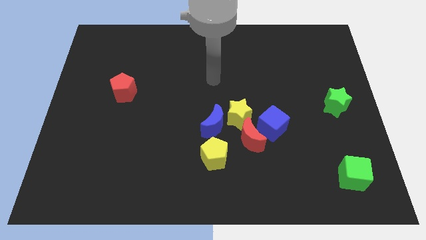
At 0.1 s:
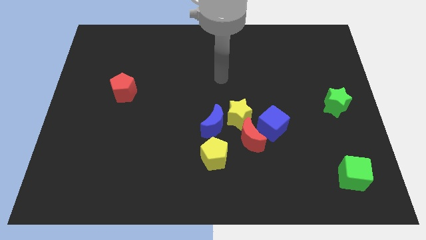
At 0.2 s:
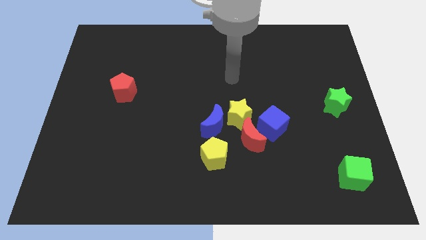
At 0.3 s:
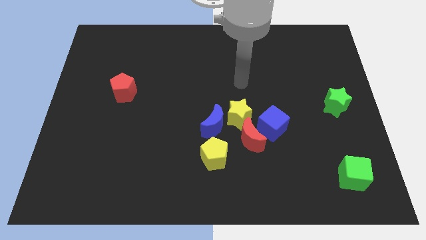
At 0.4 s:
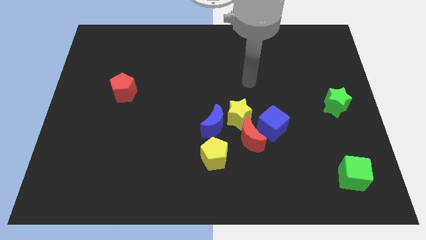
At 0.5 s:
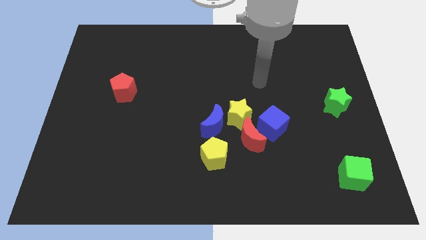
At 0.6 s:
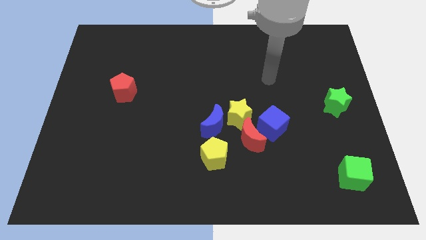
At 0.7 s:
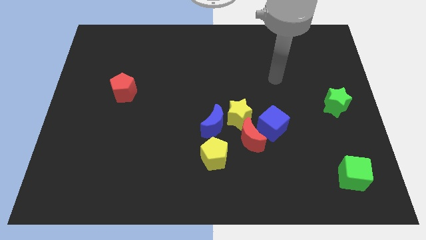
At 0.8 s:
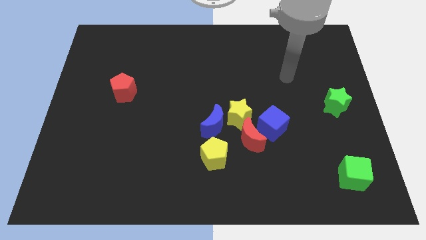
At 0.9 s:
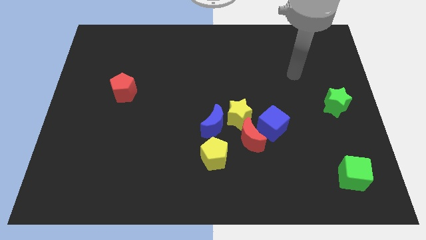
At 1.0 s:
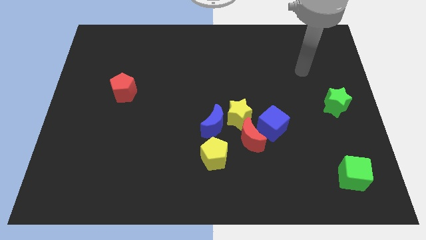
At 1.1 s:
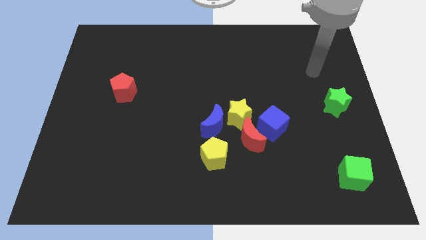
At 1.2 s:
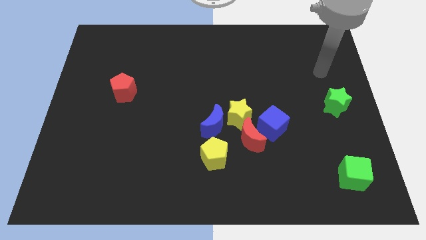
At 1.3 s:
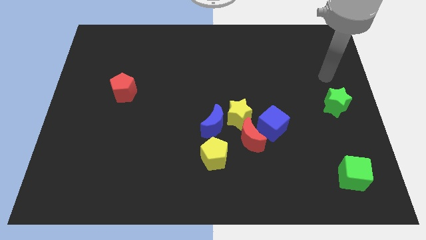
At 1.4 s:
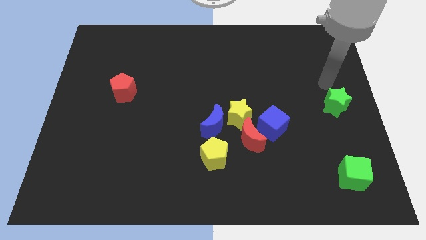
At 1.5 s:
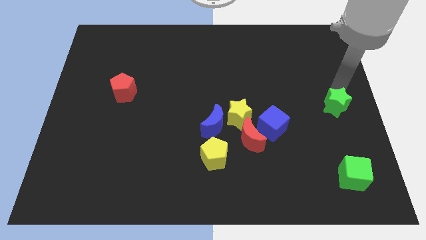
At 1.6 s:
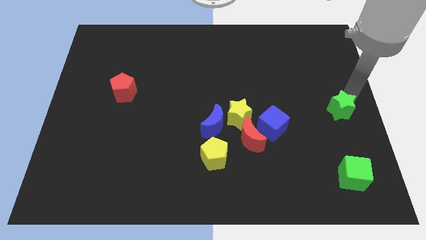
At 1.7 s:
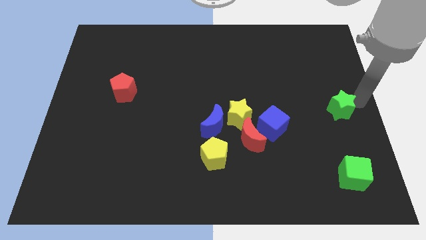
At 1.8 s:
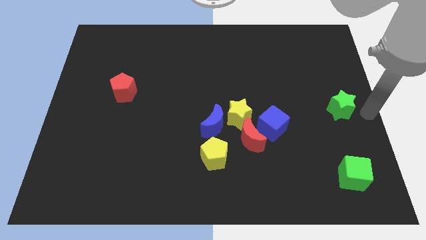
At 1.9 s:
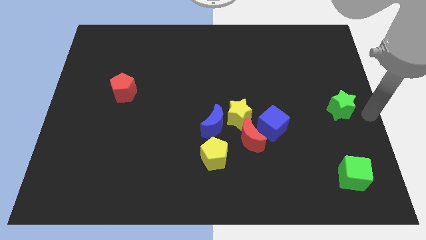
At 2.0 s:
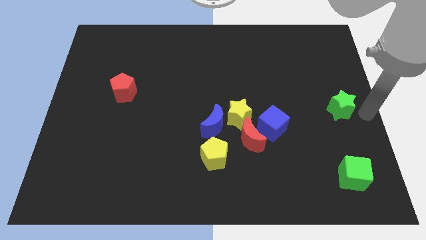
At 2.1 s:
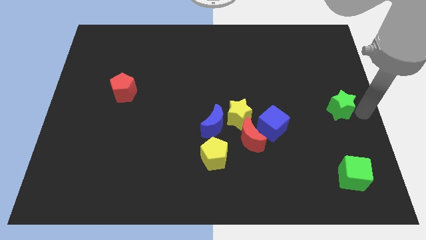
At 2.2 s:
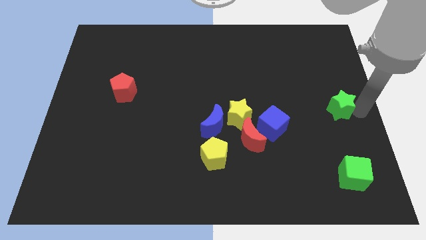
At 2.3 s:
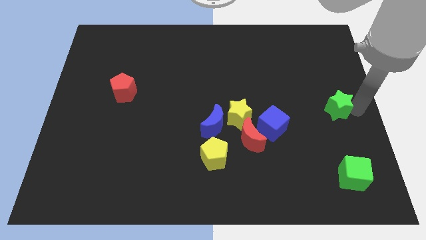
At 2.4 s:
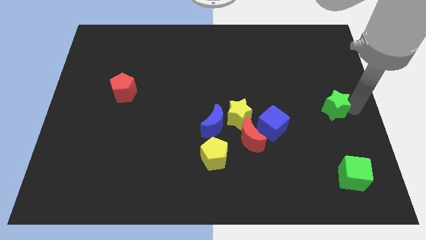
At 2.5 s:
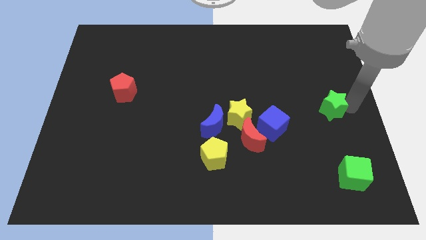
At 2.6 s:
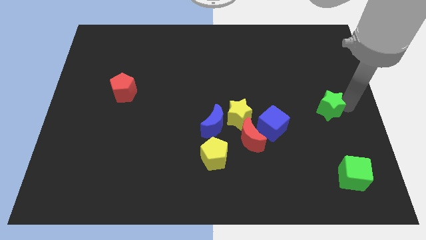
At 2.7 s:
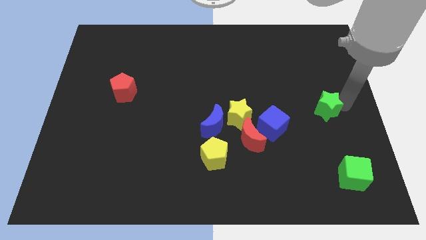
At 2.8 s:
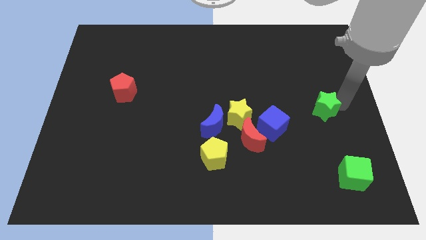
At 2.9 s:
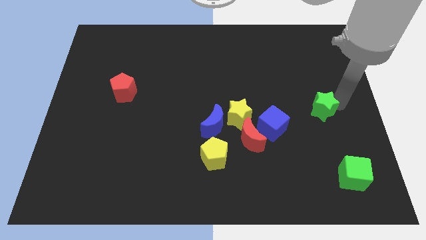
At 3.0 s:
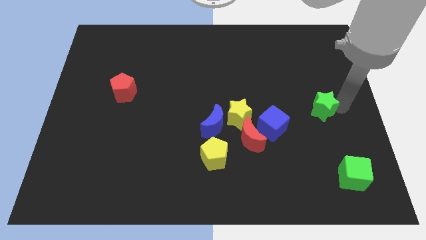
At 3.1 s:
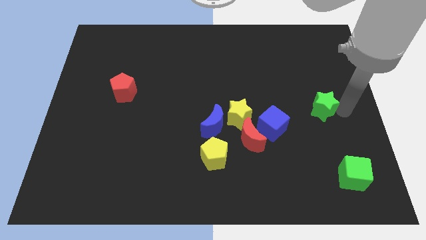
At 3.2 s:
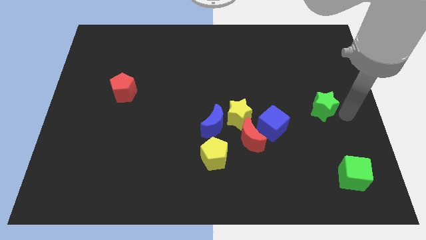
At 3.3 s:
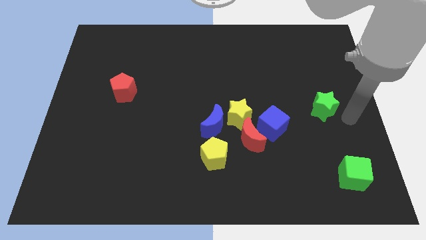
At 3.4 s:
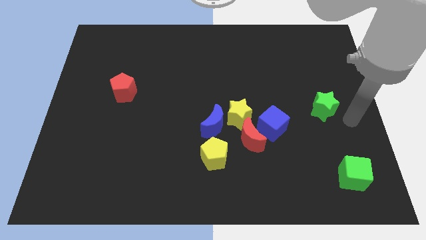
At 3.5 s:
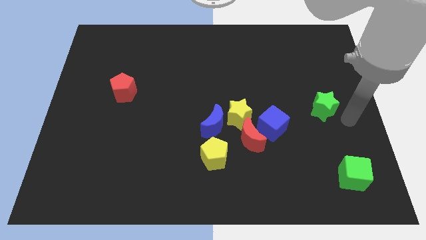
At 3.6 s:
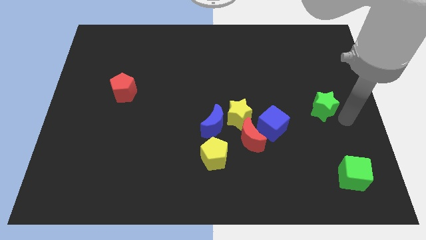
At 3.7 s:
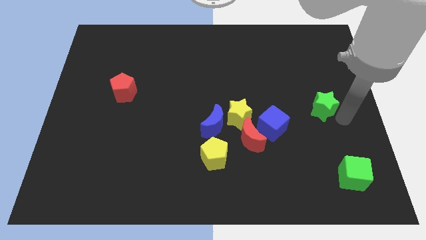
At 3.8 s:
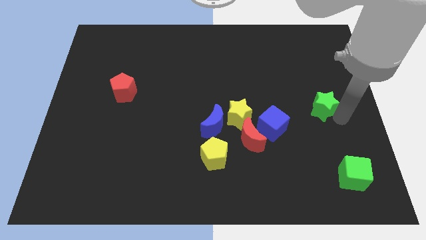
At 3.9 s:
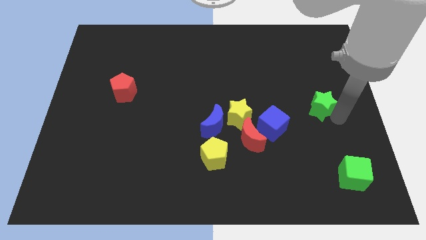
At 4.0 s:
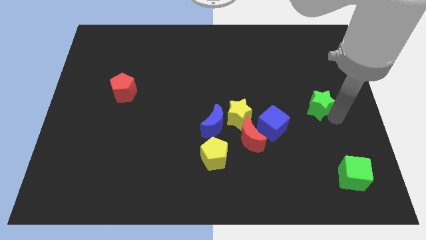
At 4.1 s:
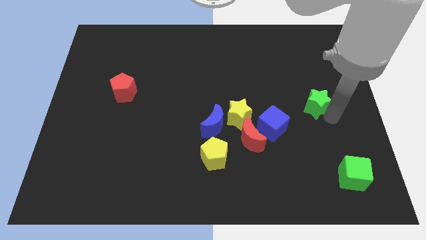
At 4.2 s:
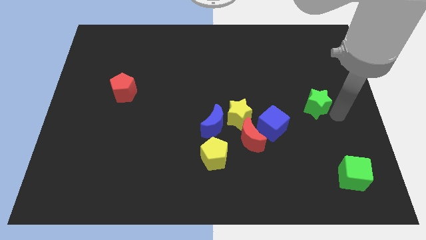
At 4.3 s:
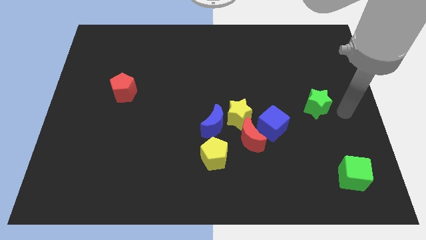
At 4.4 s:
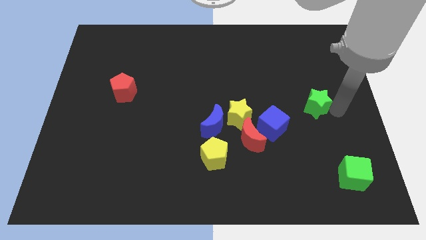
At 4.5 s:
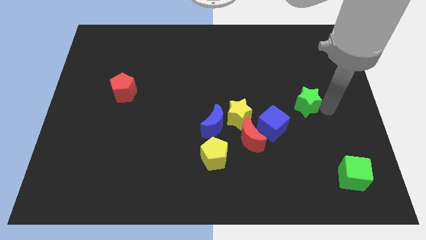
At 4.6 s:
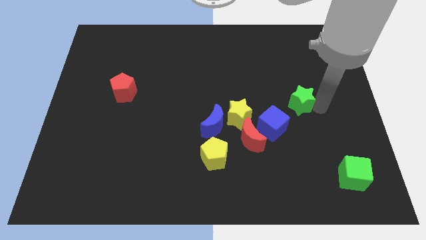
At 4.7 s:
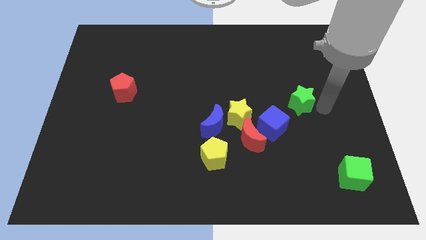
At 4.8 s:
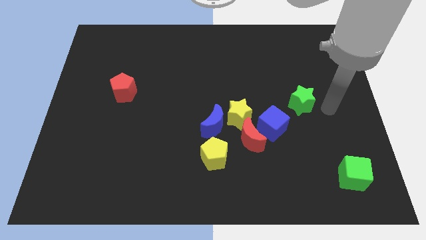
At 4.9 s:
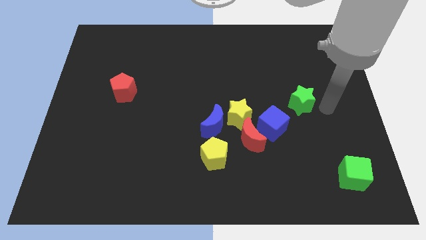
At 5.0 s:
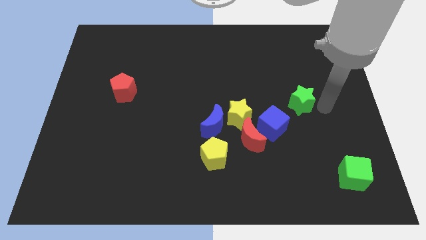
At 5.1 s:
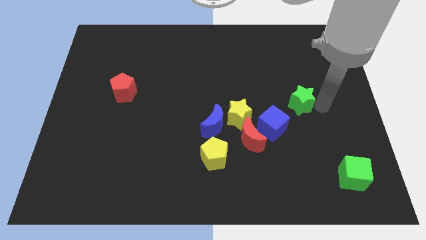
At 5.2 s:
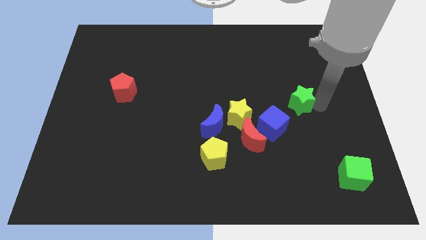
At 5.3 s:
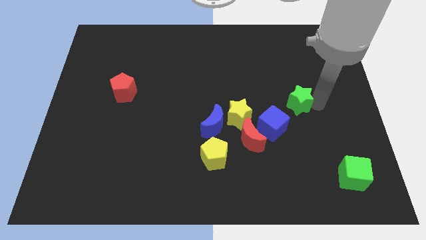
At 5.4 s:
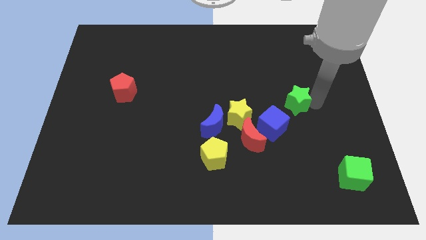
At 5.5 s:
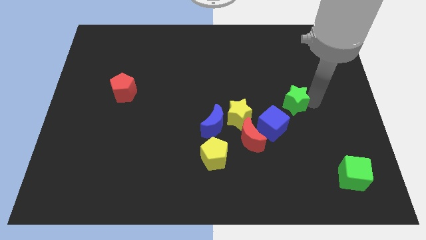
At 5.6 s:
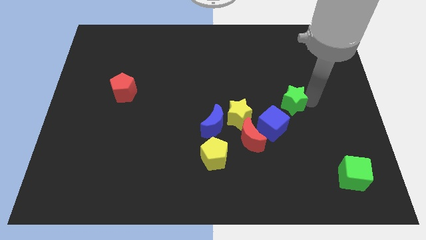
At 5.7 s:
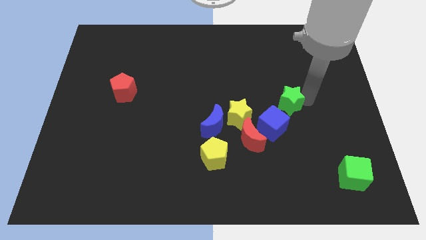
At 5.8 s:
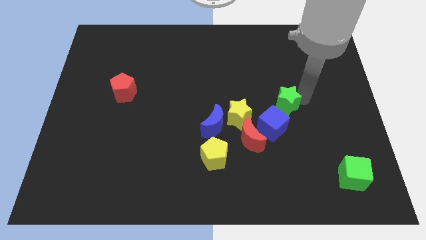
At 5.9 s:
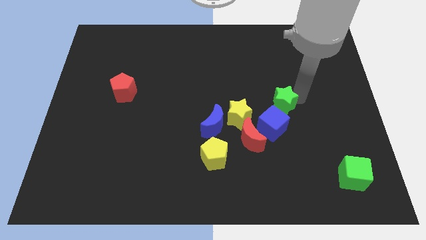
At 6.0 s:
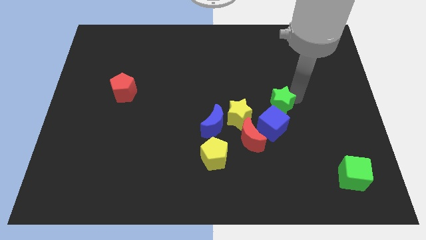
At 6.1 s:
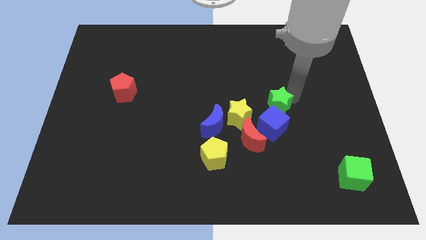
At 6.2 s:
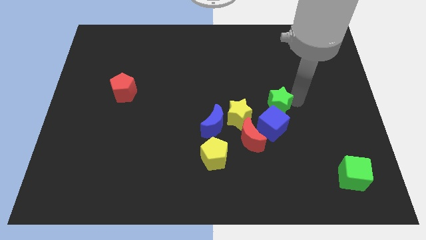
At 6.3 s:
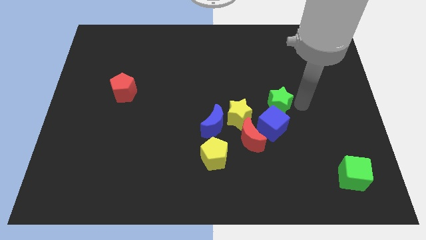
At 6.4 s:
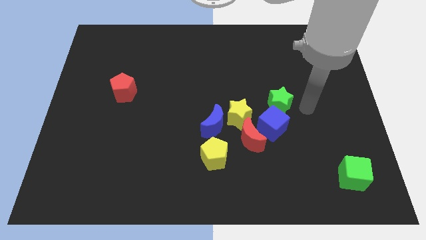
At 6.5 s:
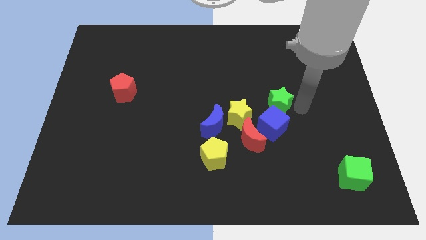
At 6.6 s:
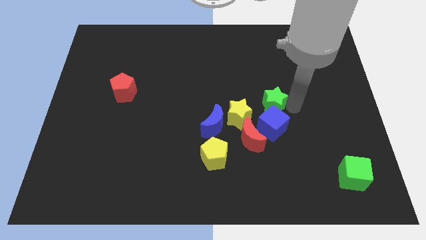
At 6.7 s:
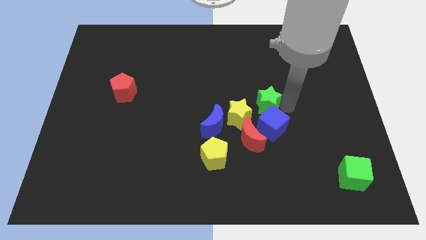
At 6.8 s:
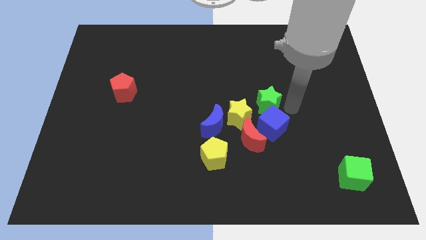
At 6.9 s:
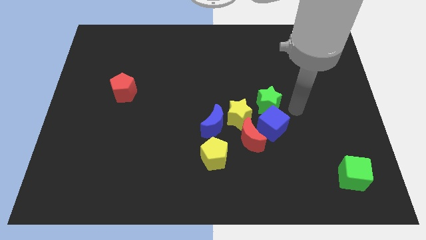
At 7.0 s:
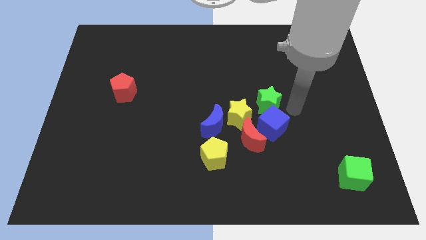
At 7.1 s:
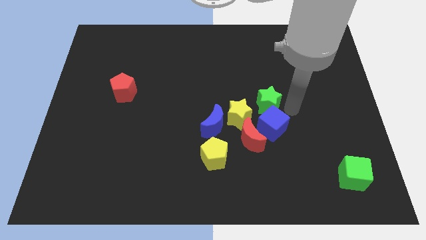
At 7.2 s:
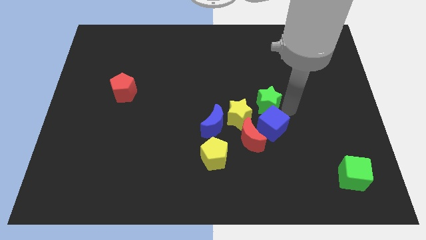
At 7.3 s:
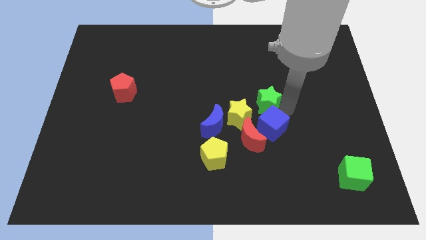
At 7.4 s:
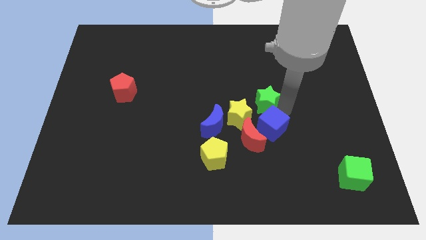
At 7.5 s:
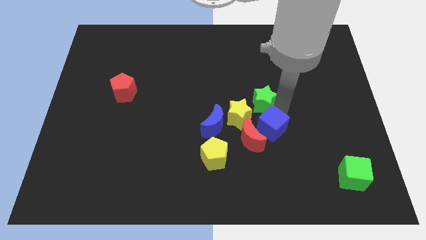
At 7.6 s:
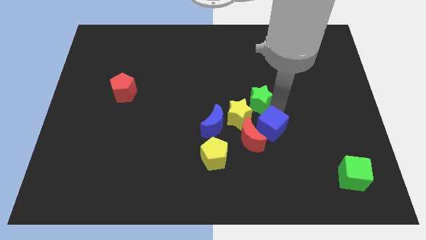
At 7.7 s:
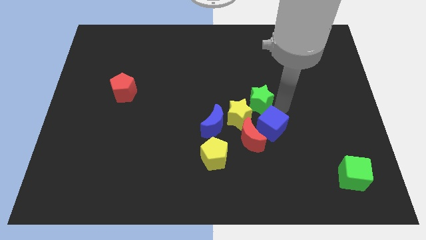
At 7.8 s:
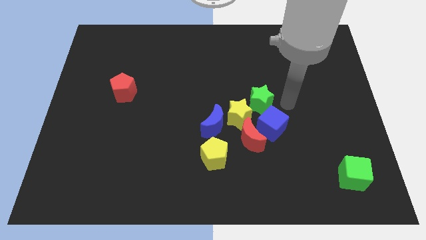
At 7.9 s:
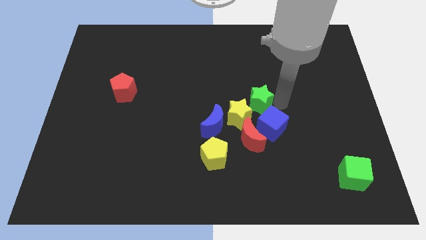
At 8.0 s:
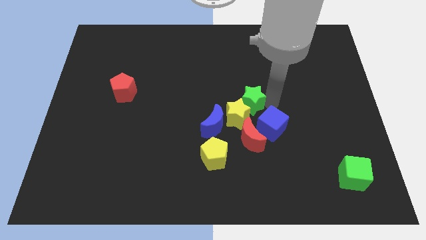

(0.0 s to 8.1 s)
move the green star left

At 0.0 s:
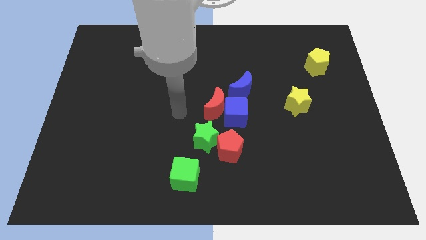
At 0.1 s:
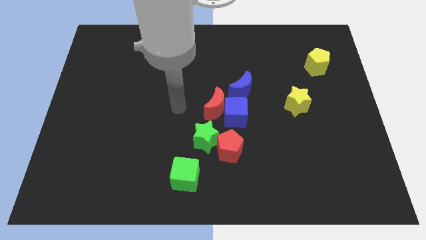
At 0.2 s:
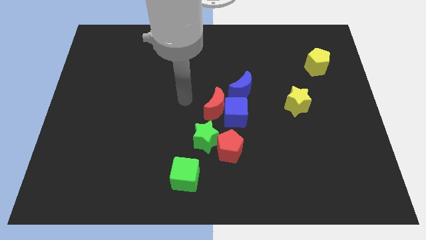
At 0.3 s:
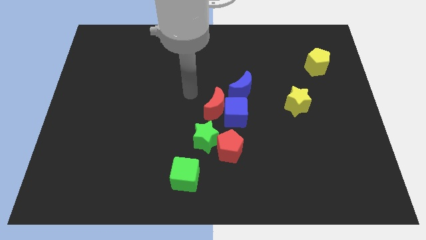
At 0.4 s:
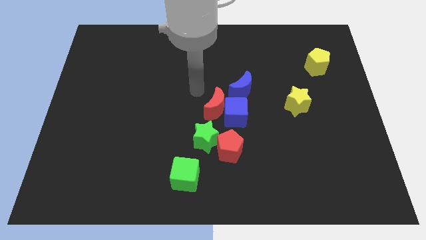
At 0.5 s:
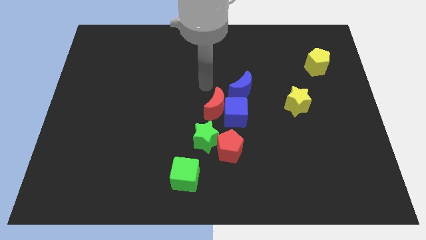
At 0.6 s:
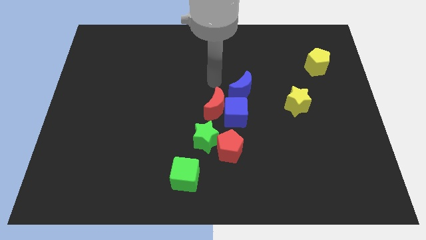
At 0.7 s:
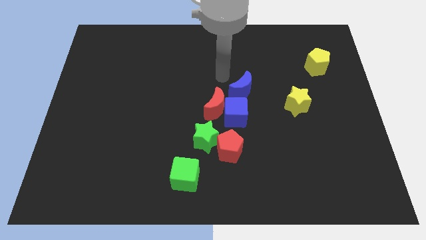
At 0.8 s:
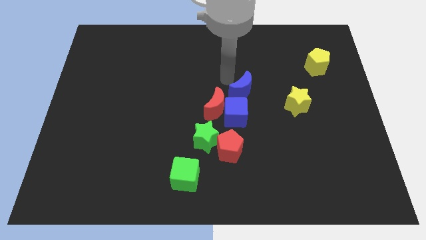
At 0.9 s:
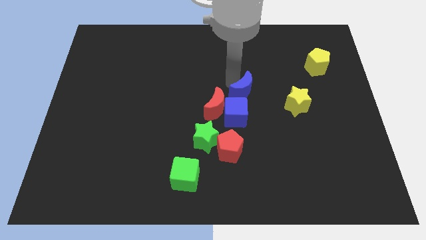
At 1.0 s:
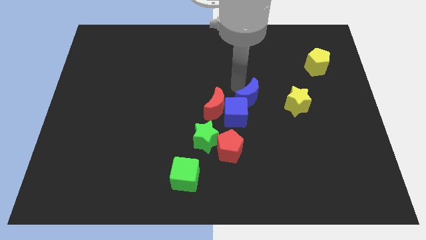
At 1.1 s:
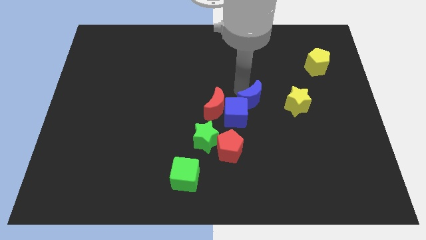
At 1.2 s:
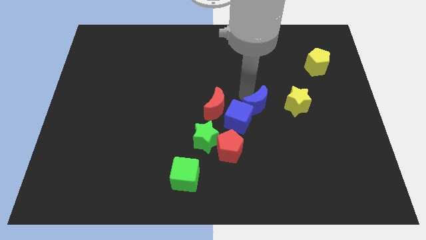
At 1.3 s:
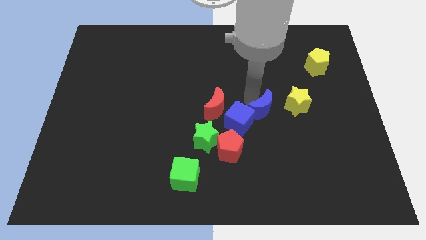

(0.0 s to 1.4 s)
slide the blue moon a little down and right
